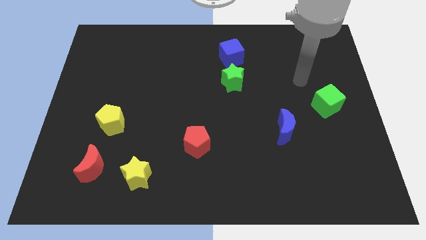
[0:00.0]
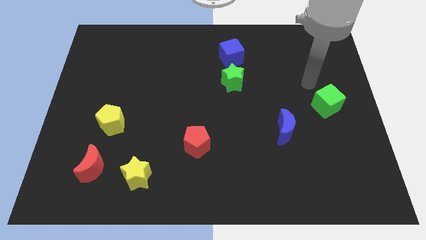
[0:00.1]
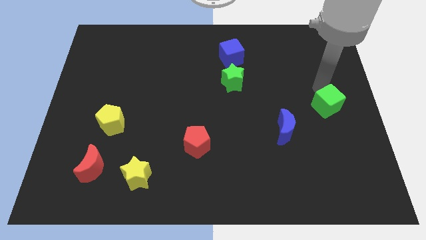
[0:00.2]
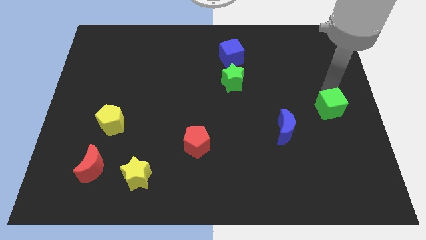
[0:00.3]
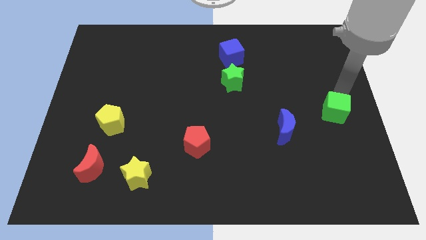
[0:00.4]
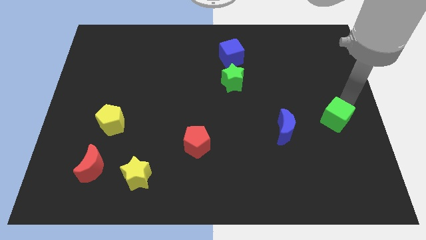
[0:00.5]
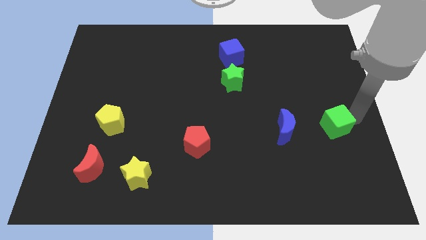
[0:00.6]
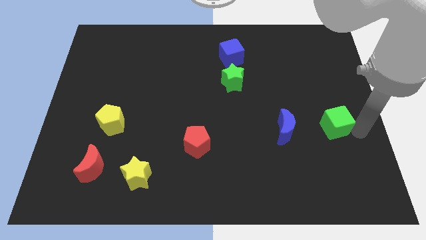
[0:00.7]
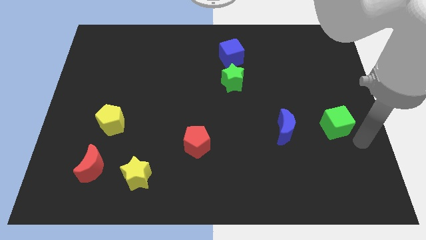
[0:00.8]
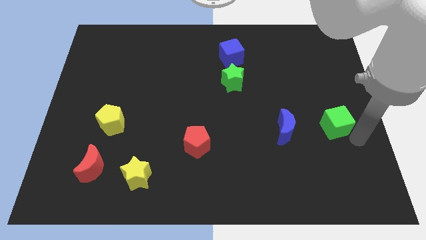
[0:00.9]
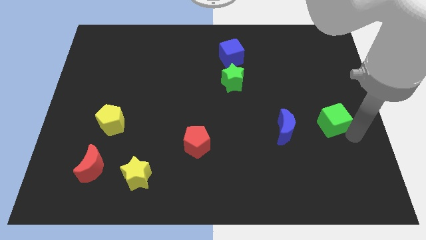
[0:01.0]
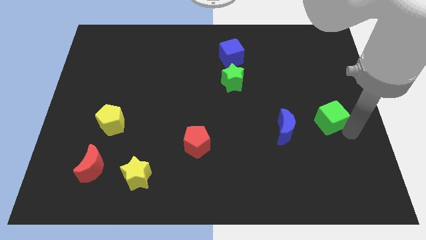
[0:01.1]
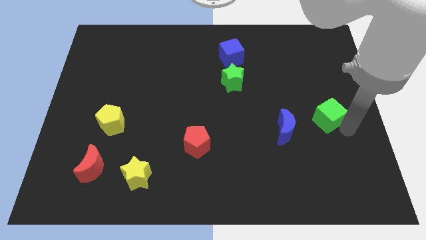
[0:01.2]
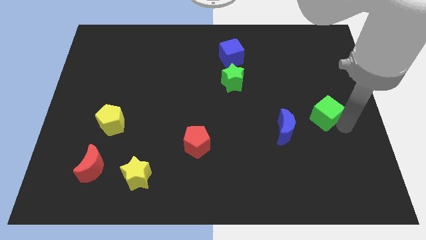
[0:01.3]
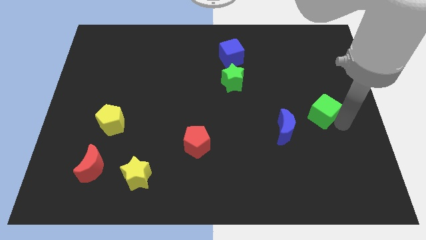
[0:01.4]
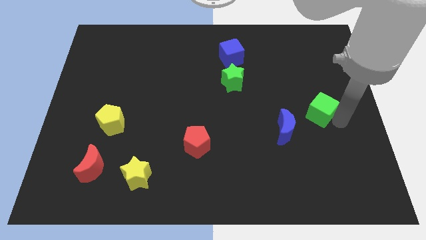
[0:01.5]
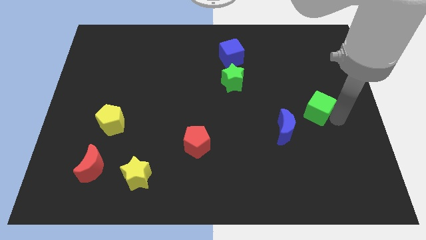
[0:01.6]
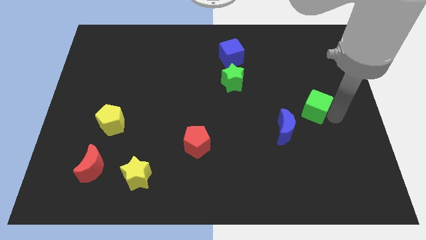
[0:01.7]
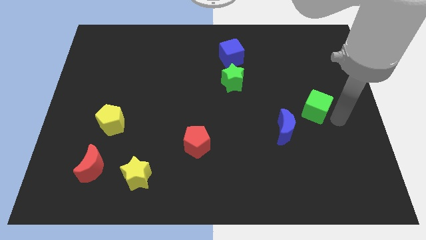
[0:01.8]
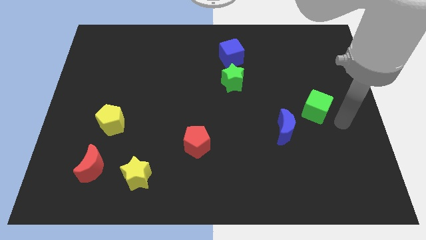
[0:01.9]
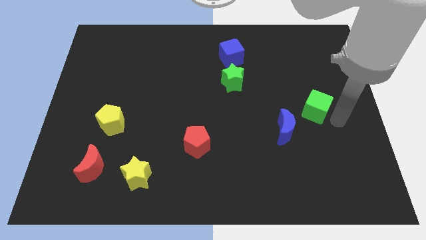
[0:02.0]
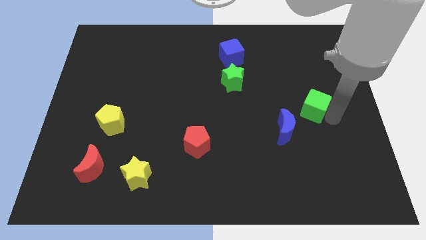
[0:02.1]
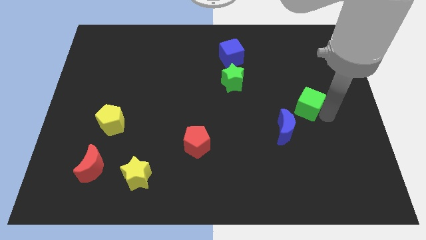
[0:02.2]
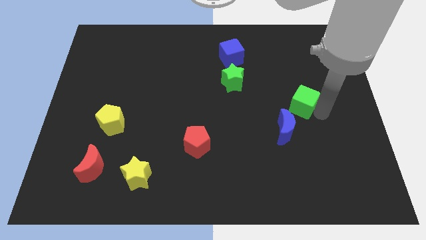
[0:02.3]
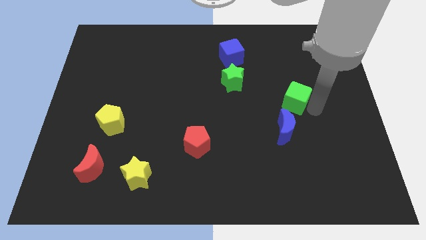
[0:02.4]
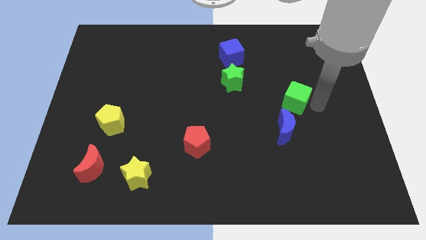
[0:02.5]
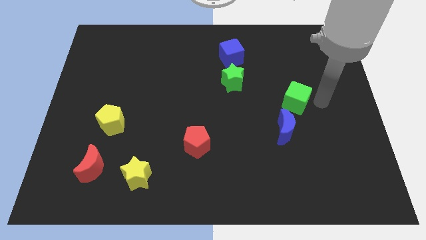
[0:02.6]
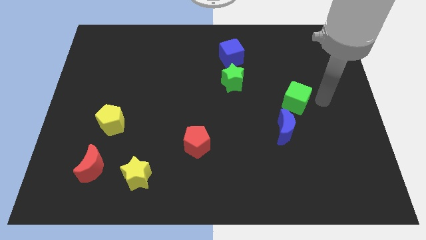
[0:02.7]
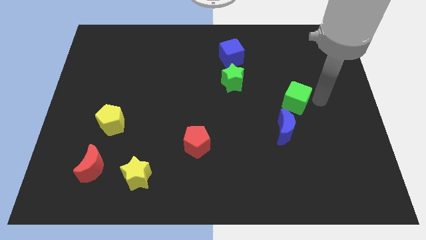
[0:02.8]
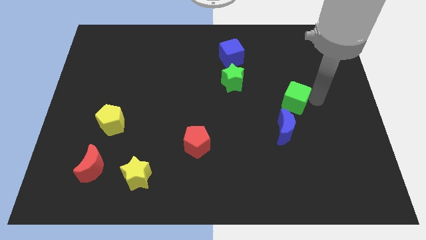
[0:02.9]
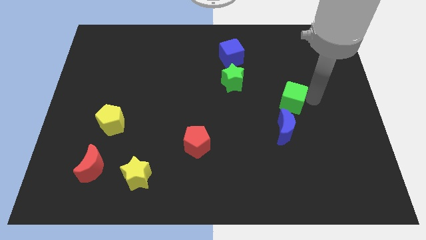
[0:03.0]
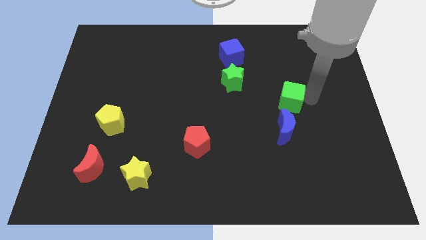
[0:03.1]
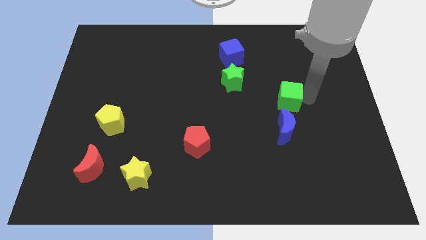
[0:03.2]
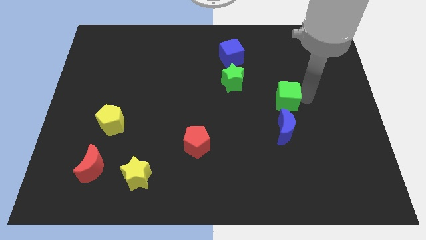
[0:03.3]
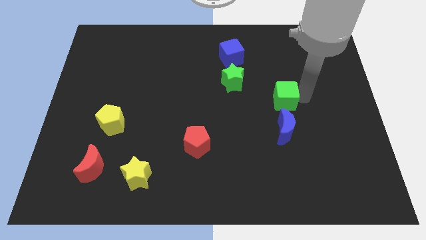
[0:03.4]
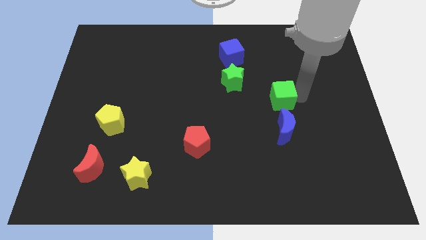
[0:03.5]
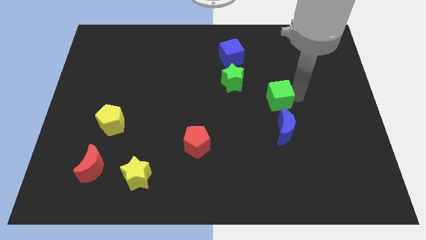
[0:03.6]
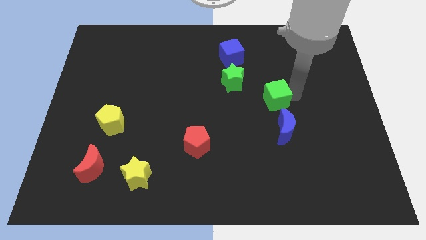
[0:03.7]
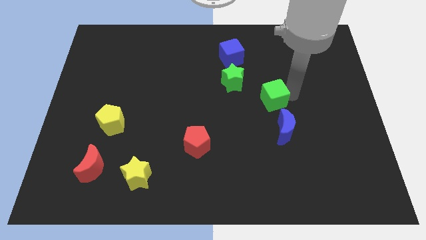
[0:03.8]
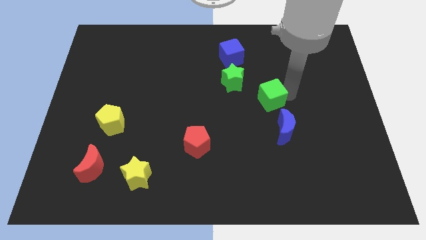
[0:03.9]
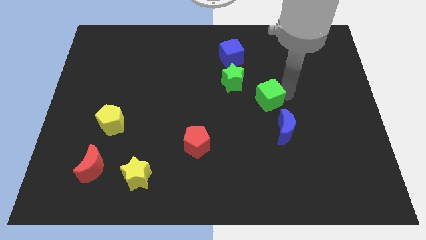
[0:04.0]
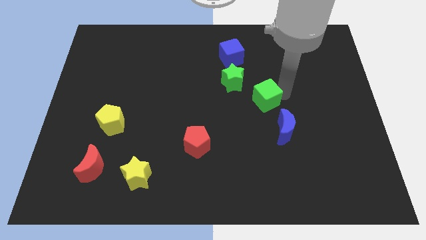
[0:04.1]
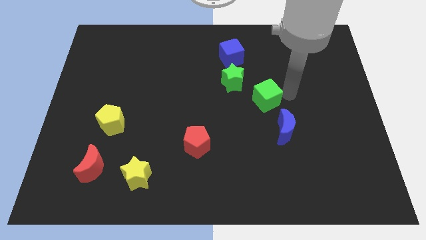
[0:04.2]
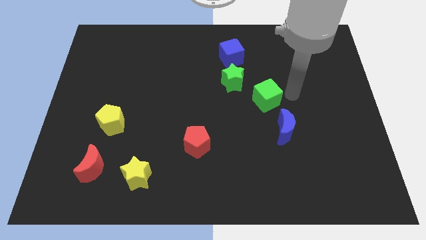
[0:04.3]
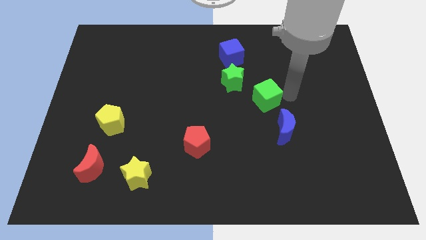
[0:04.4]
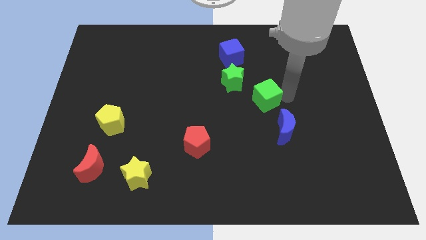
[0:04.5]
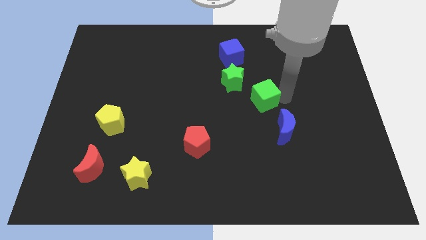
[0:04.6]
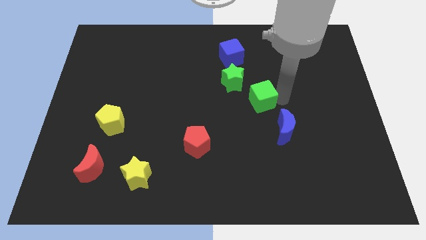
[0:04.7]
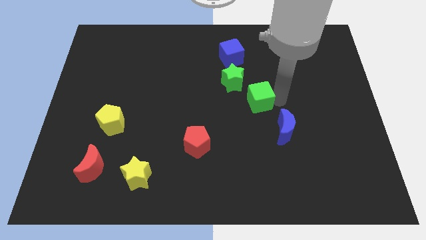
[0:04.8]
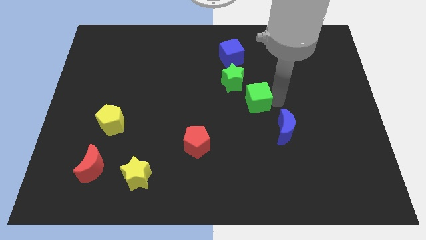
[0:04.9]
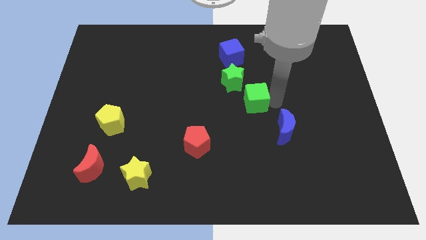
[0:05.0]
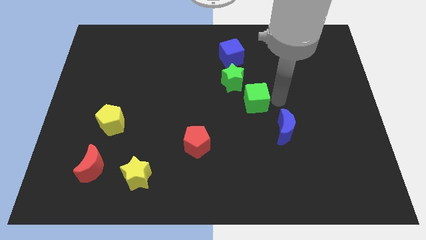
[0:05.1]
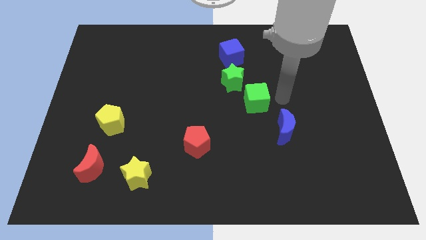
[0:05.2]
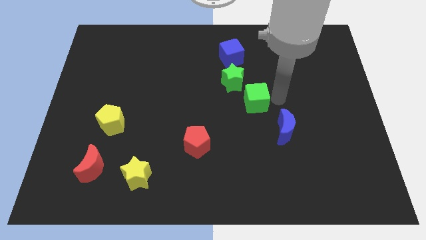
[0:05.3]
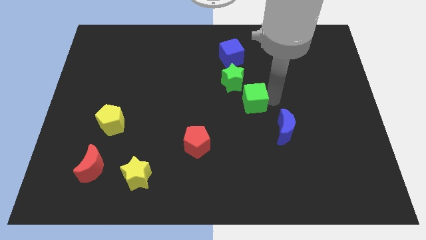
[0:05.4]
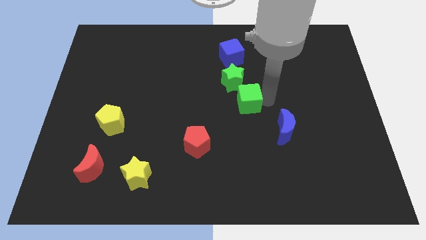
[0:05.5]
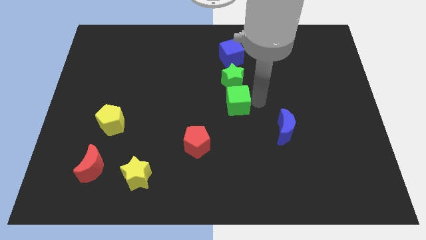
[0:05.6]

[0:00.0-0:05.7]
push the green cube to the left

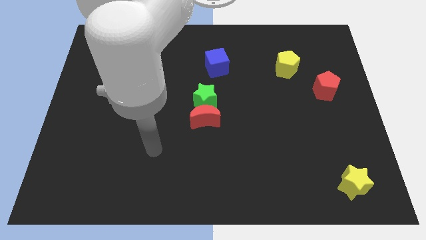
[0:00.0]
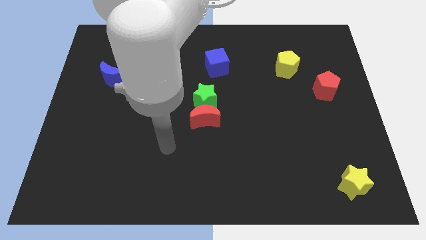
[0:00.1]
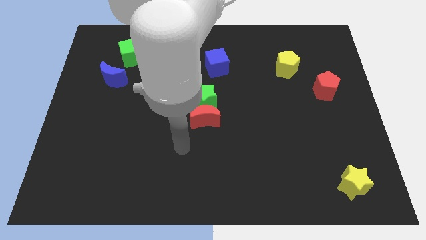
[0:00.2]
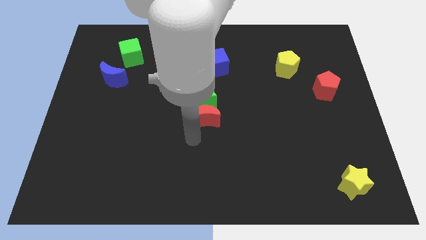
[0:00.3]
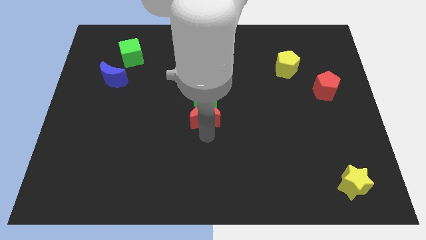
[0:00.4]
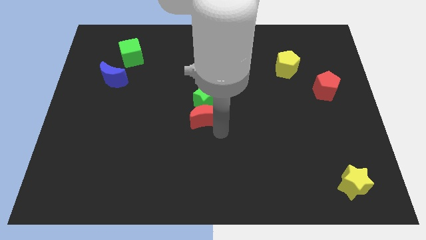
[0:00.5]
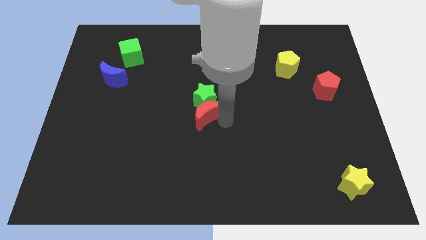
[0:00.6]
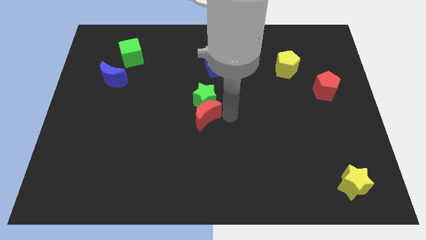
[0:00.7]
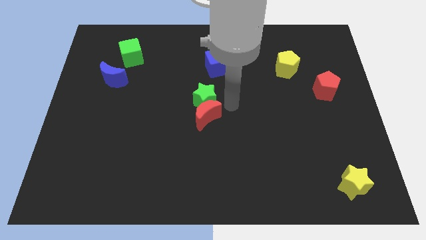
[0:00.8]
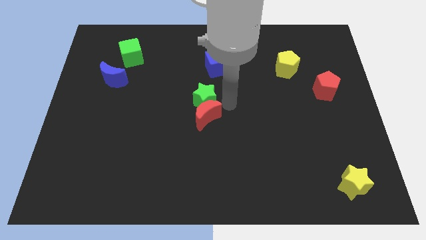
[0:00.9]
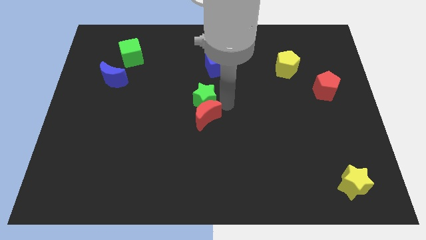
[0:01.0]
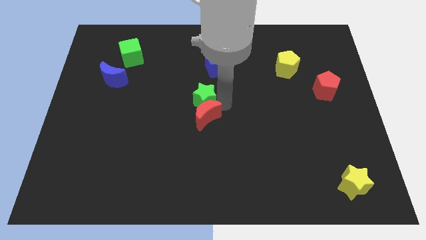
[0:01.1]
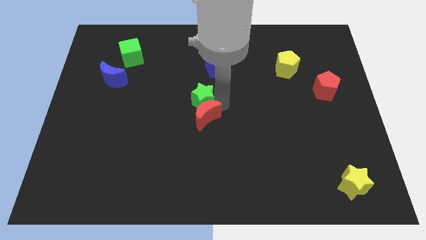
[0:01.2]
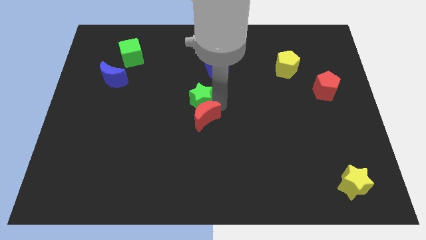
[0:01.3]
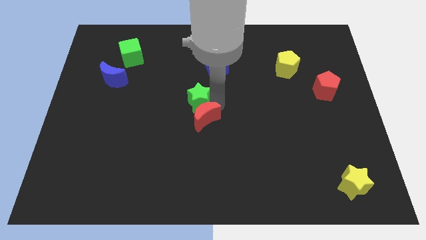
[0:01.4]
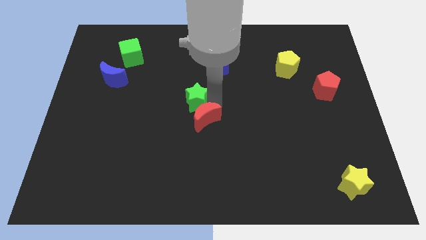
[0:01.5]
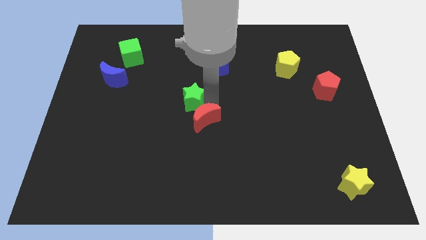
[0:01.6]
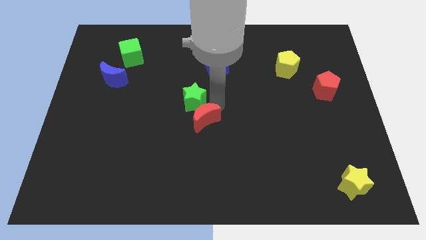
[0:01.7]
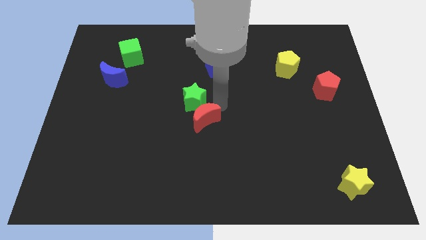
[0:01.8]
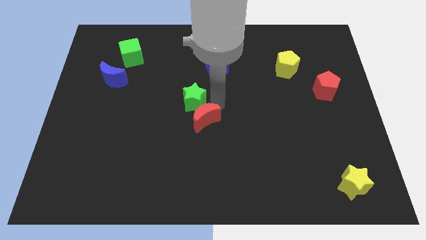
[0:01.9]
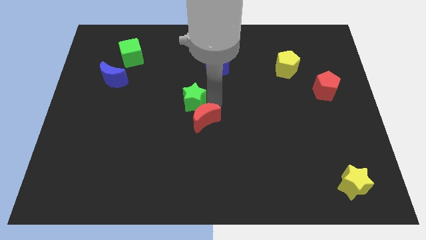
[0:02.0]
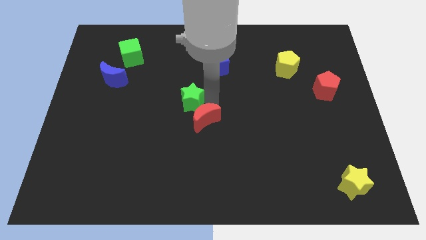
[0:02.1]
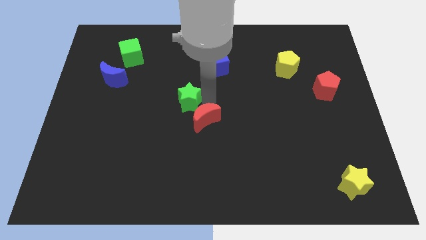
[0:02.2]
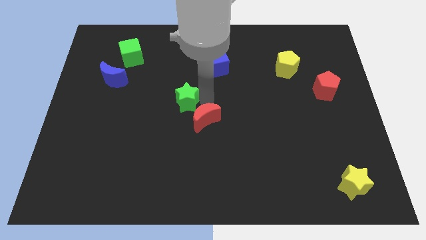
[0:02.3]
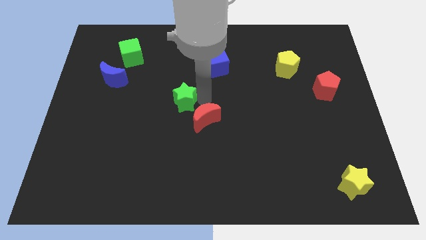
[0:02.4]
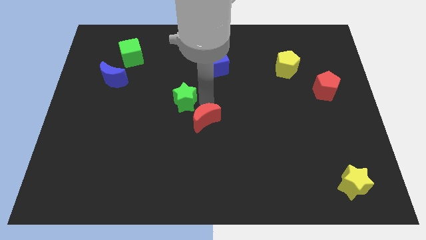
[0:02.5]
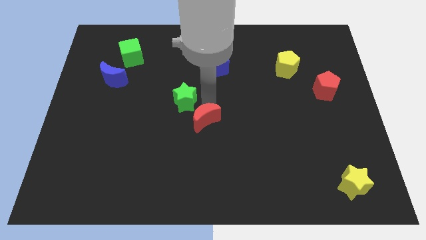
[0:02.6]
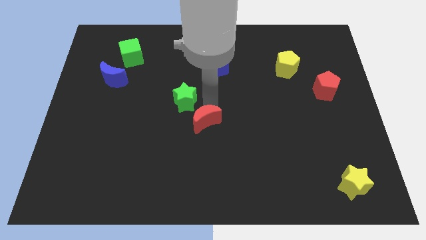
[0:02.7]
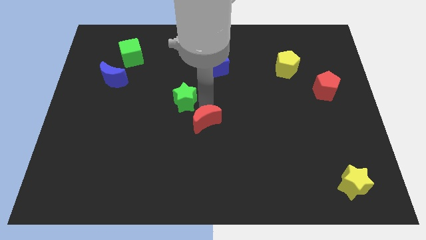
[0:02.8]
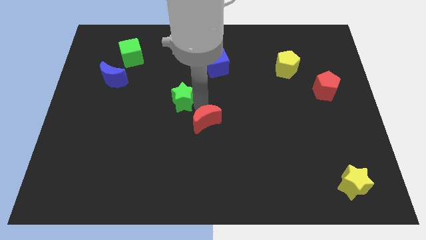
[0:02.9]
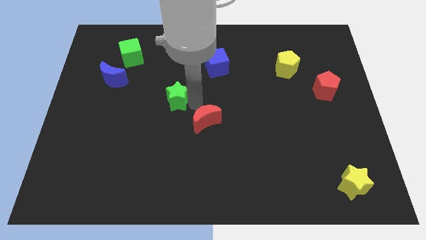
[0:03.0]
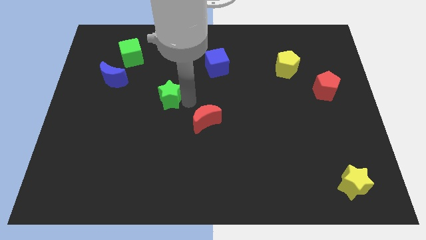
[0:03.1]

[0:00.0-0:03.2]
slide the green star left a bit
